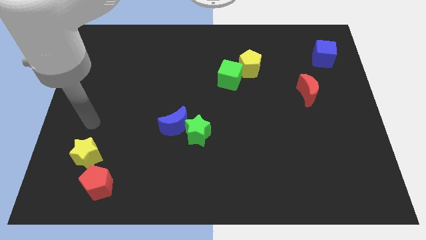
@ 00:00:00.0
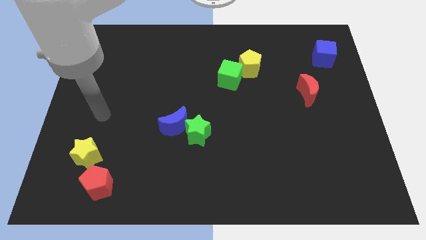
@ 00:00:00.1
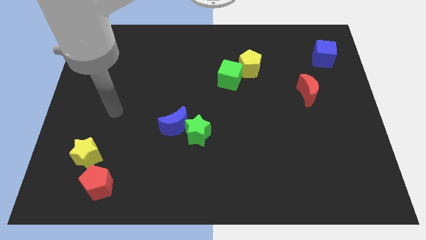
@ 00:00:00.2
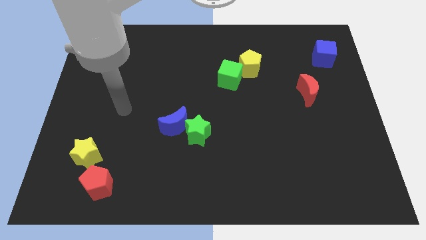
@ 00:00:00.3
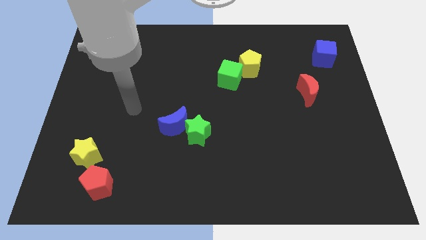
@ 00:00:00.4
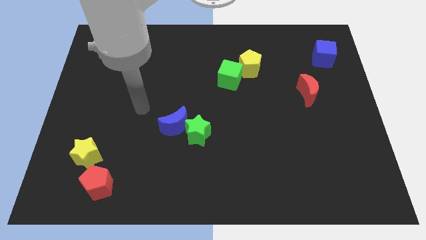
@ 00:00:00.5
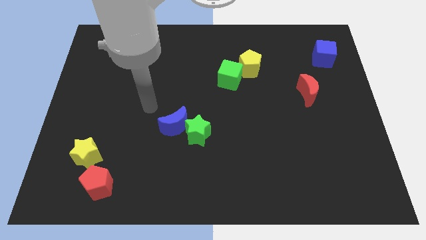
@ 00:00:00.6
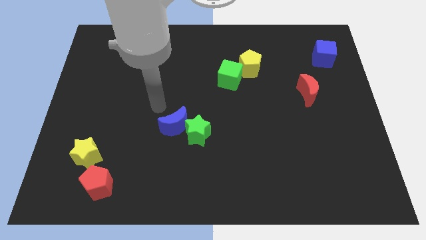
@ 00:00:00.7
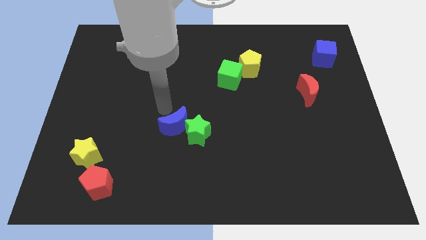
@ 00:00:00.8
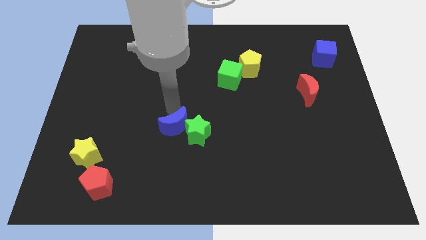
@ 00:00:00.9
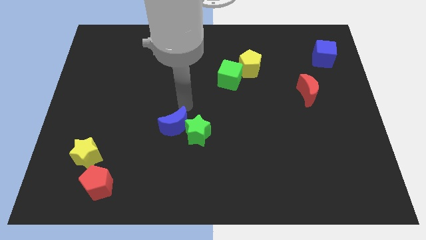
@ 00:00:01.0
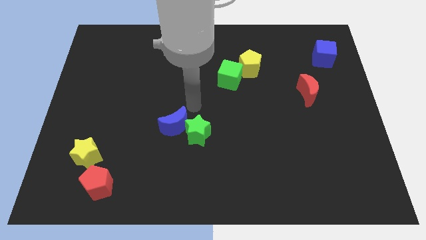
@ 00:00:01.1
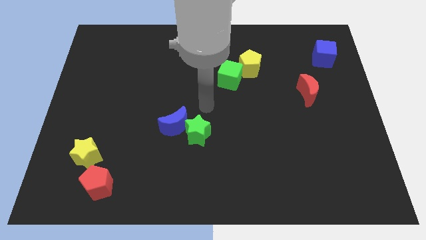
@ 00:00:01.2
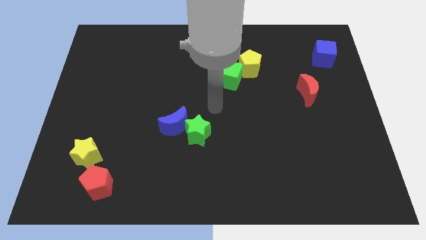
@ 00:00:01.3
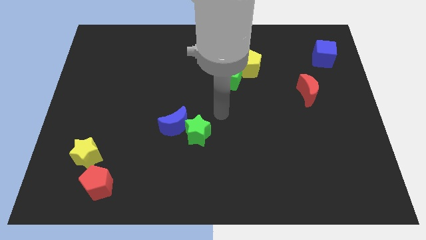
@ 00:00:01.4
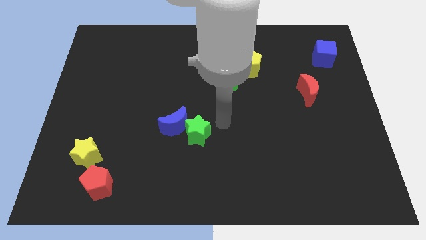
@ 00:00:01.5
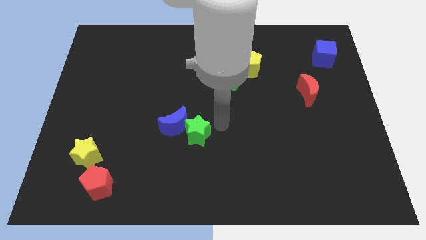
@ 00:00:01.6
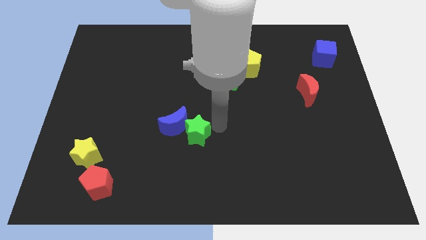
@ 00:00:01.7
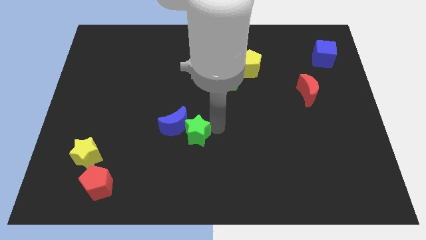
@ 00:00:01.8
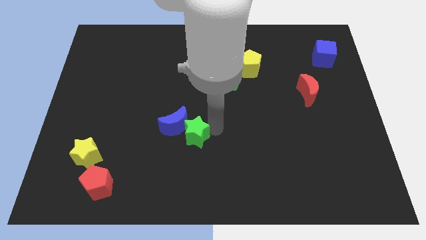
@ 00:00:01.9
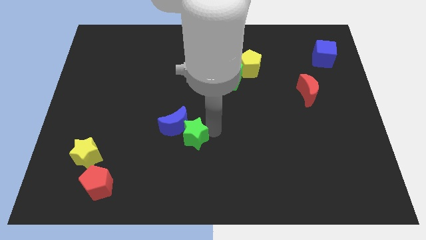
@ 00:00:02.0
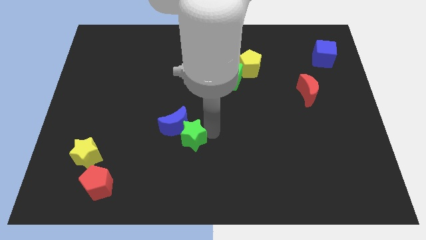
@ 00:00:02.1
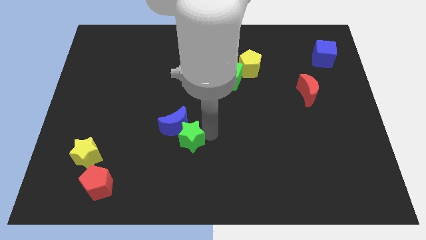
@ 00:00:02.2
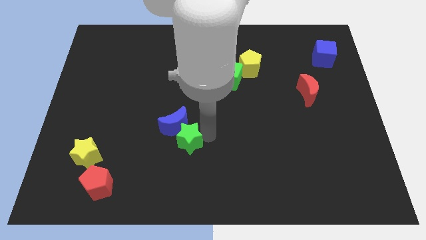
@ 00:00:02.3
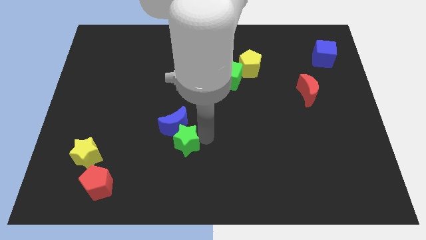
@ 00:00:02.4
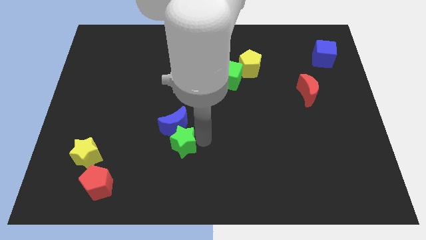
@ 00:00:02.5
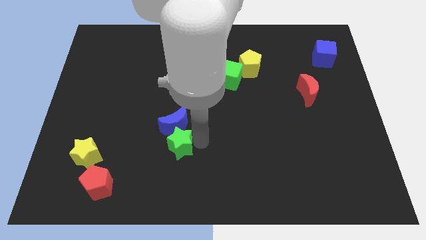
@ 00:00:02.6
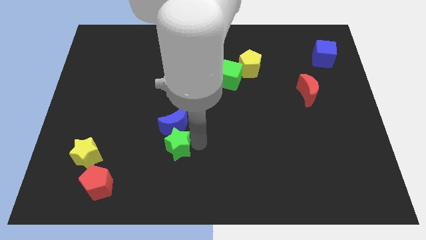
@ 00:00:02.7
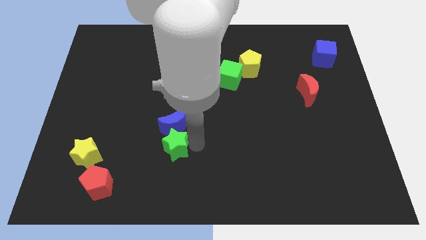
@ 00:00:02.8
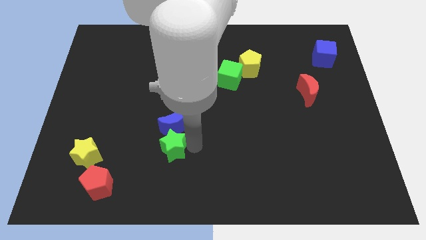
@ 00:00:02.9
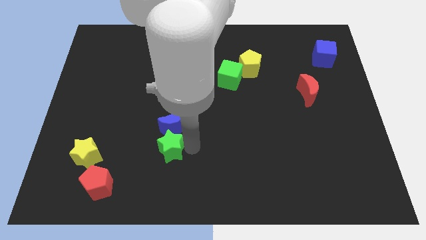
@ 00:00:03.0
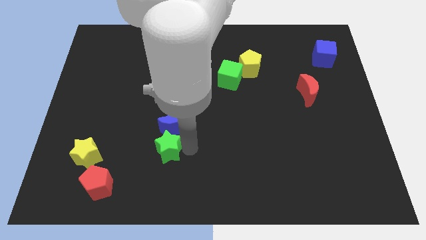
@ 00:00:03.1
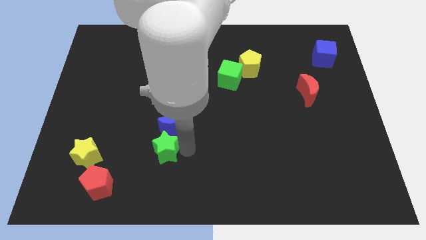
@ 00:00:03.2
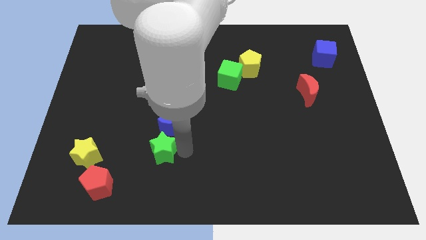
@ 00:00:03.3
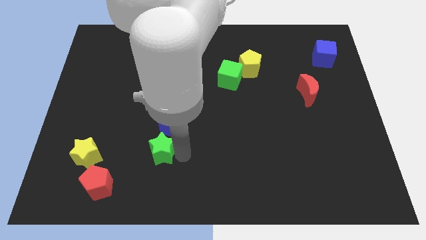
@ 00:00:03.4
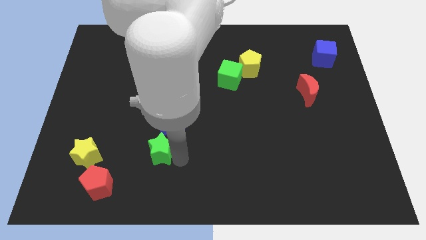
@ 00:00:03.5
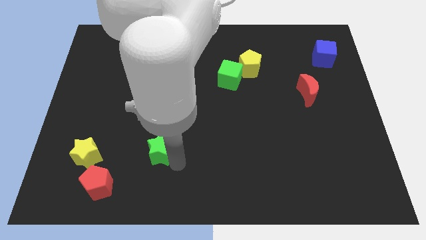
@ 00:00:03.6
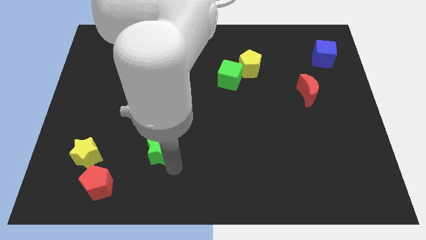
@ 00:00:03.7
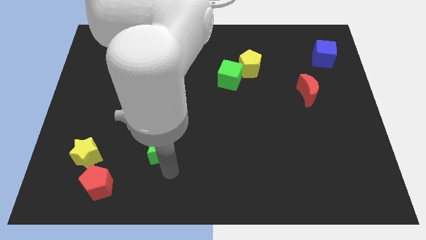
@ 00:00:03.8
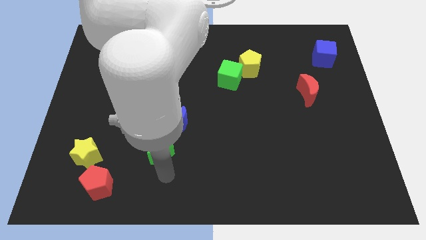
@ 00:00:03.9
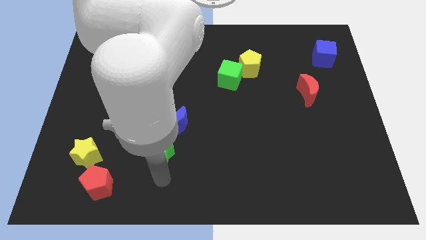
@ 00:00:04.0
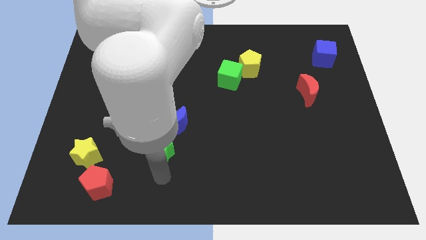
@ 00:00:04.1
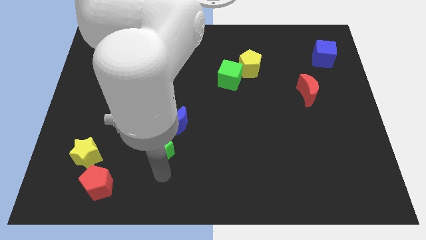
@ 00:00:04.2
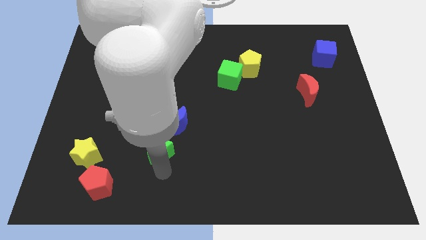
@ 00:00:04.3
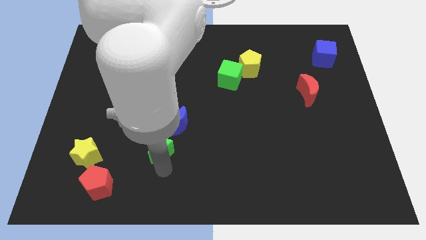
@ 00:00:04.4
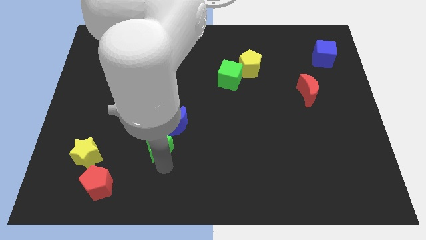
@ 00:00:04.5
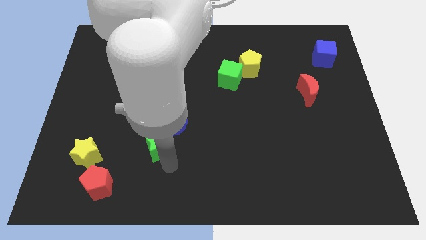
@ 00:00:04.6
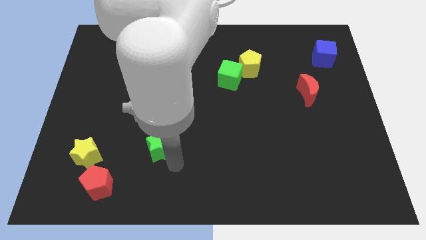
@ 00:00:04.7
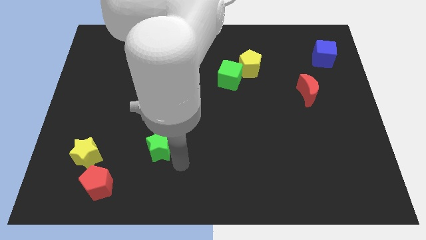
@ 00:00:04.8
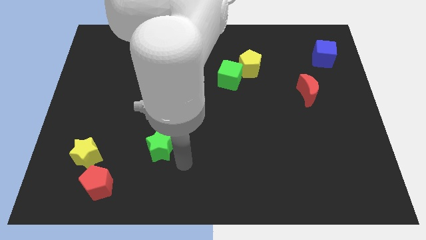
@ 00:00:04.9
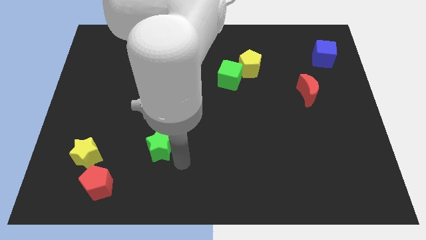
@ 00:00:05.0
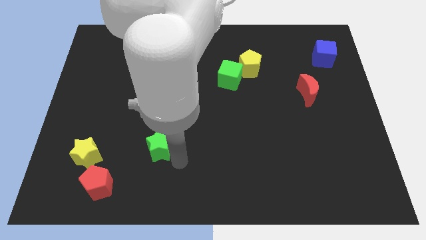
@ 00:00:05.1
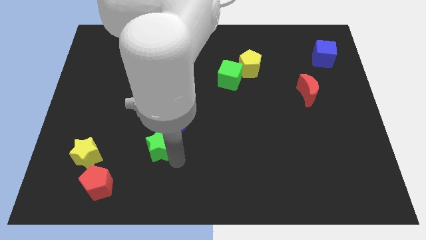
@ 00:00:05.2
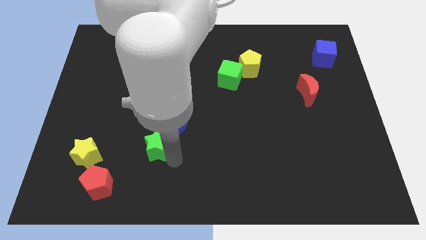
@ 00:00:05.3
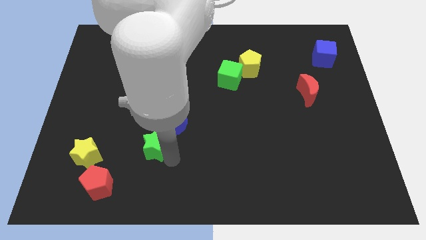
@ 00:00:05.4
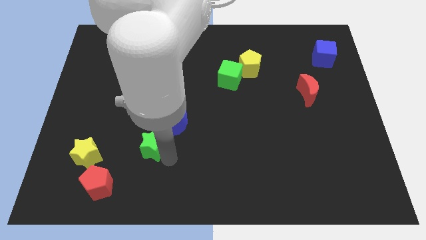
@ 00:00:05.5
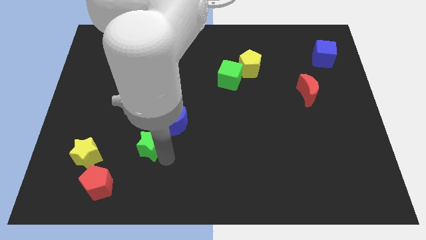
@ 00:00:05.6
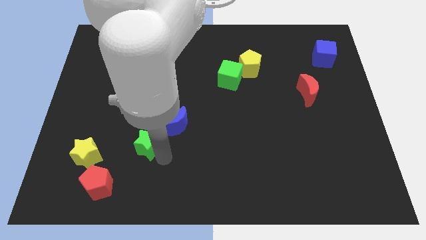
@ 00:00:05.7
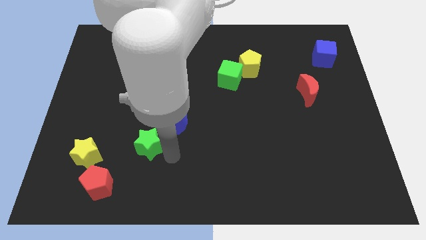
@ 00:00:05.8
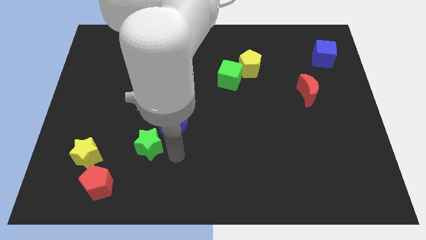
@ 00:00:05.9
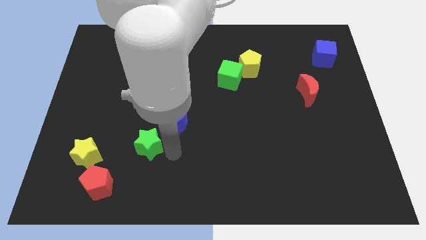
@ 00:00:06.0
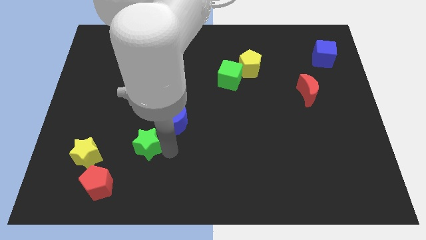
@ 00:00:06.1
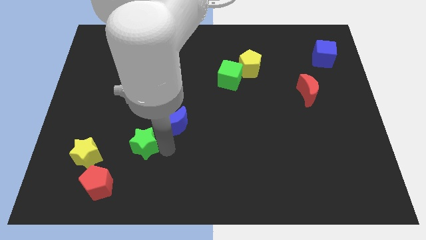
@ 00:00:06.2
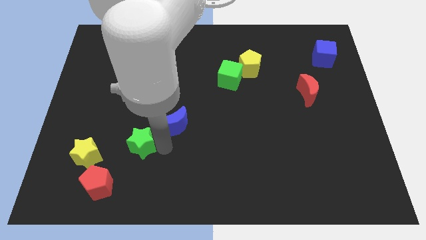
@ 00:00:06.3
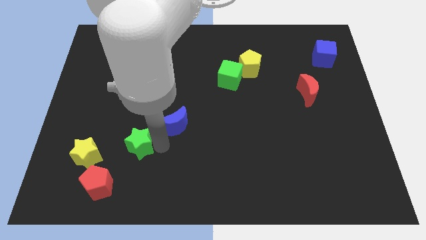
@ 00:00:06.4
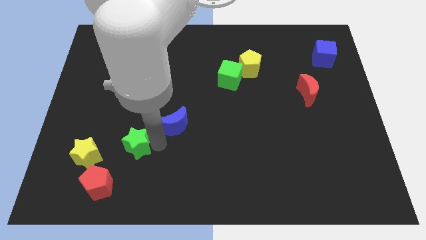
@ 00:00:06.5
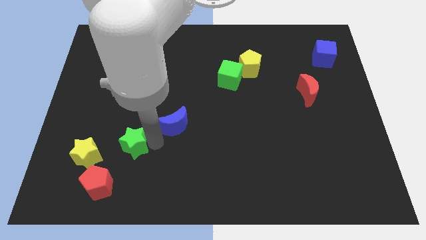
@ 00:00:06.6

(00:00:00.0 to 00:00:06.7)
move the green star diagonally up and to the right of the yellow star

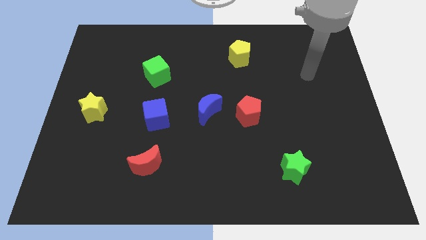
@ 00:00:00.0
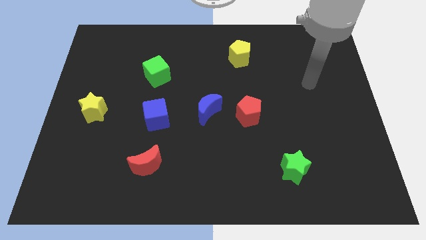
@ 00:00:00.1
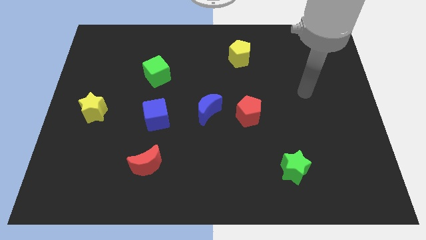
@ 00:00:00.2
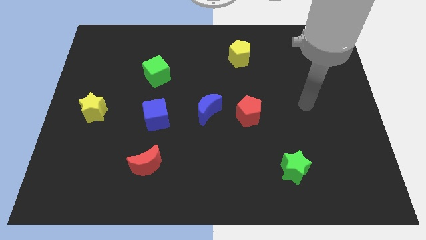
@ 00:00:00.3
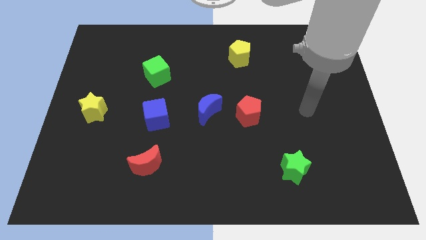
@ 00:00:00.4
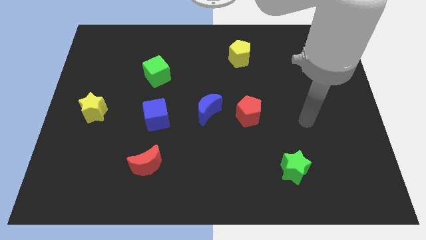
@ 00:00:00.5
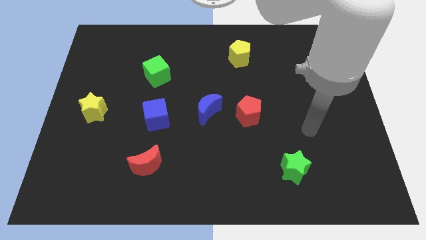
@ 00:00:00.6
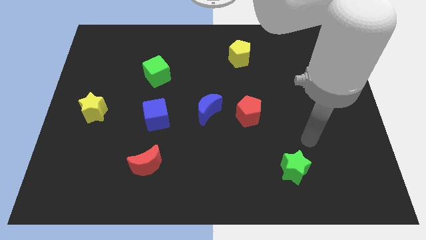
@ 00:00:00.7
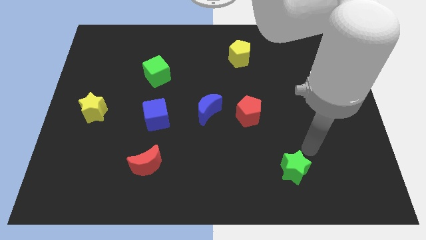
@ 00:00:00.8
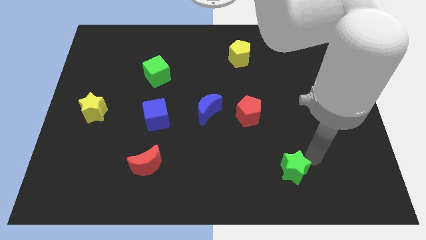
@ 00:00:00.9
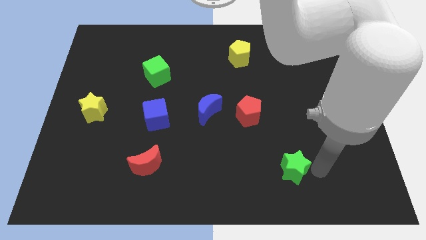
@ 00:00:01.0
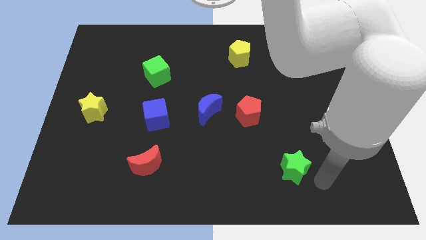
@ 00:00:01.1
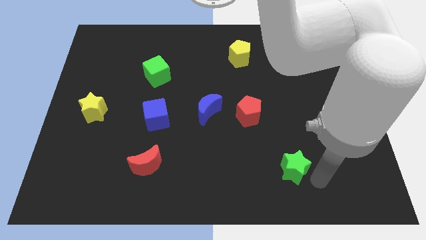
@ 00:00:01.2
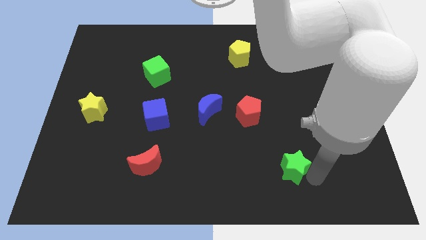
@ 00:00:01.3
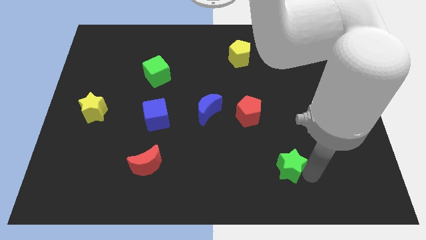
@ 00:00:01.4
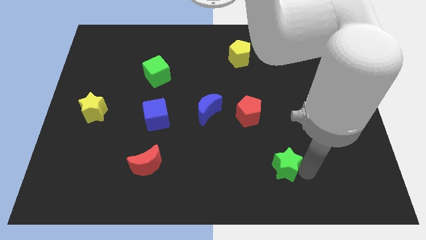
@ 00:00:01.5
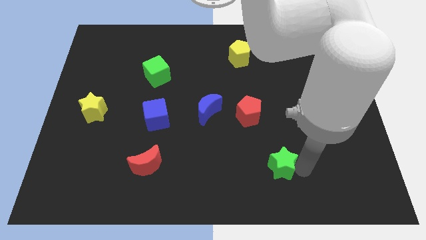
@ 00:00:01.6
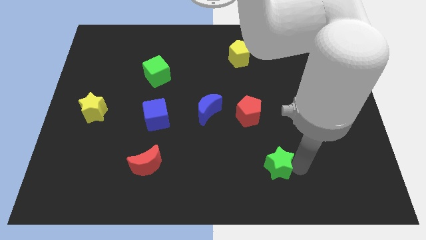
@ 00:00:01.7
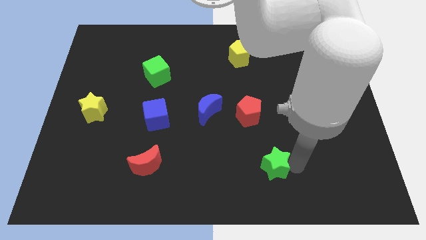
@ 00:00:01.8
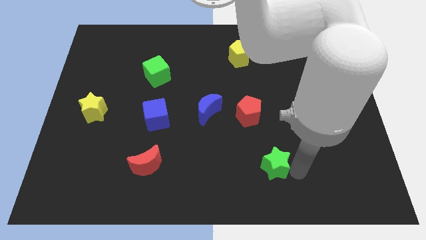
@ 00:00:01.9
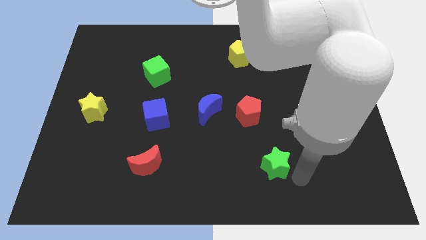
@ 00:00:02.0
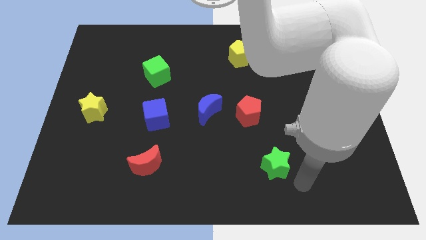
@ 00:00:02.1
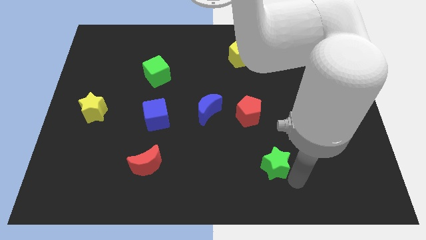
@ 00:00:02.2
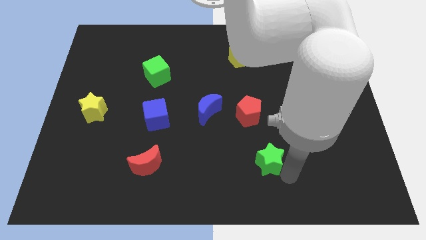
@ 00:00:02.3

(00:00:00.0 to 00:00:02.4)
push the green star below the red pentagon
